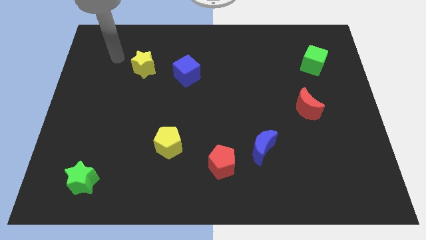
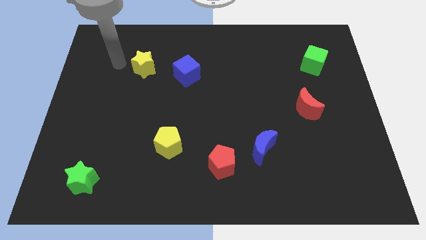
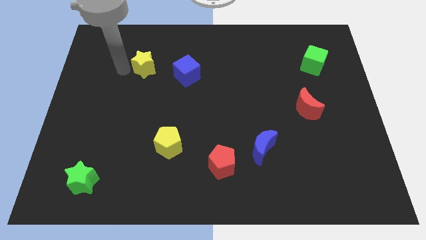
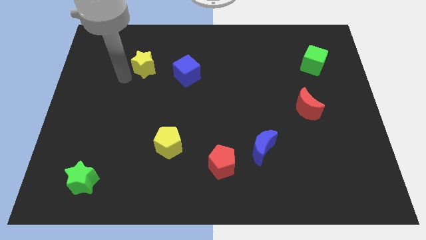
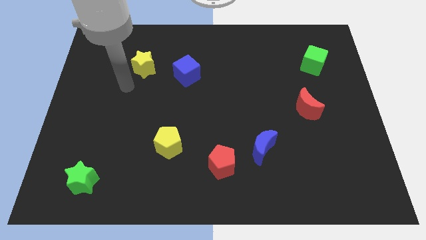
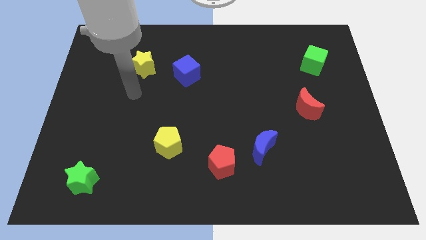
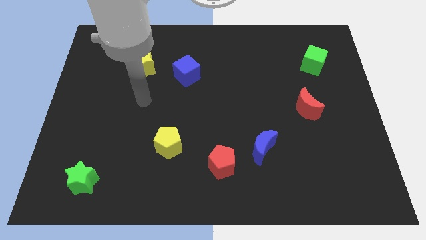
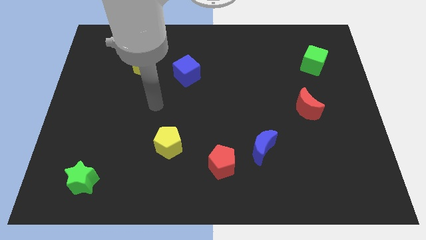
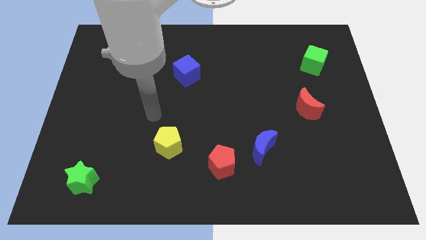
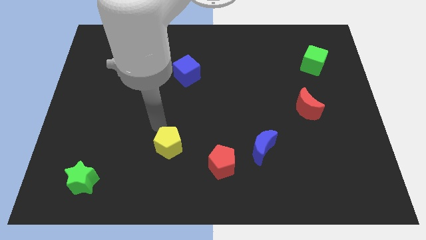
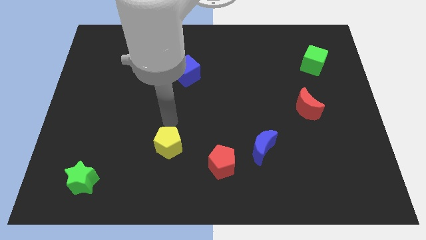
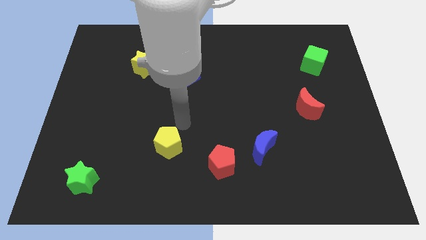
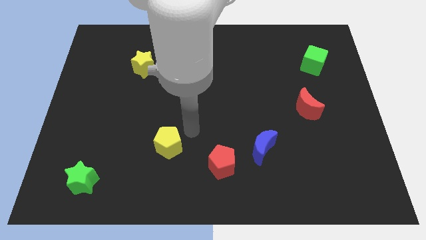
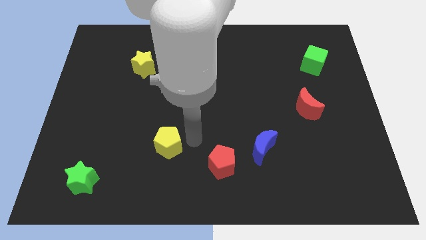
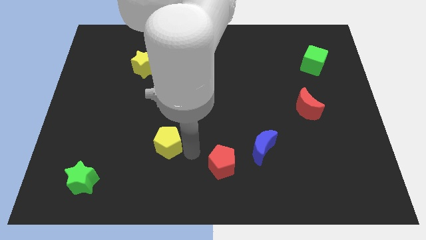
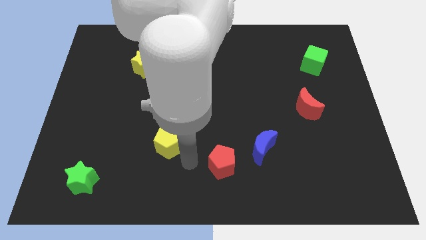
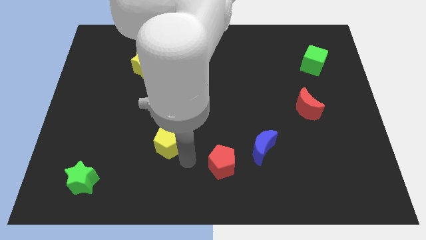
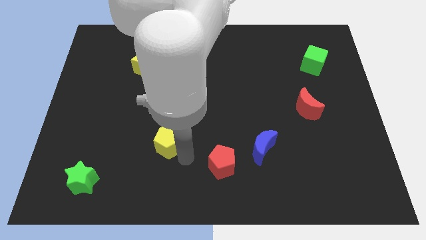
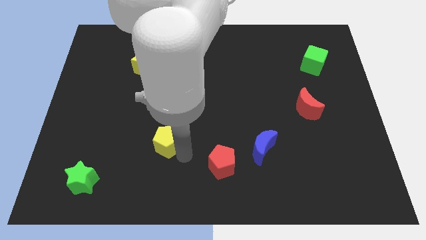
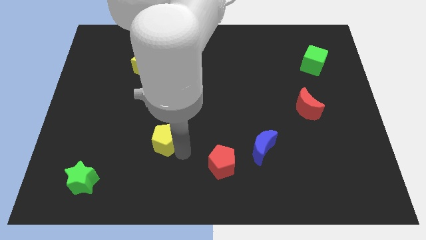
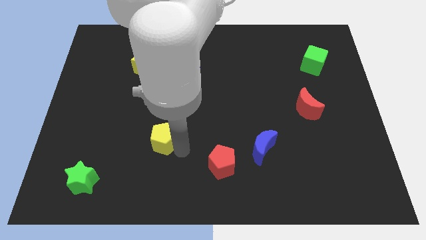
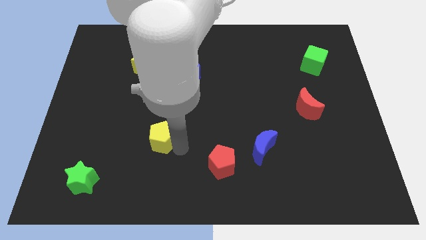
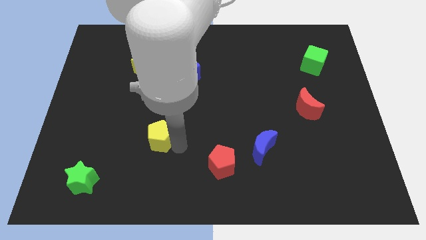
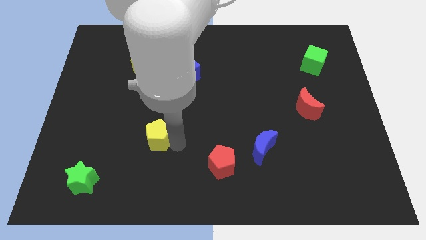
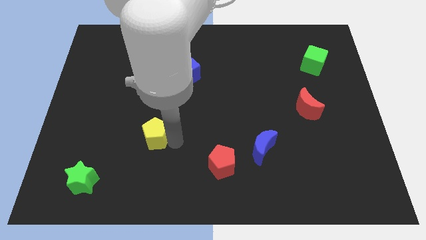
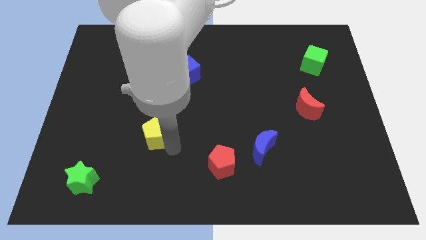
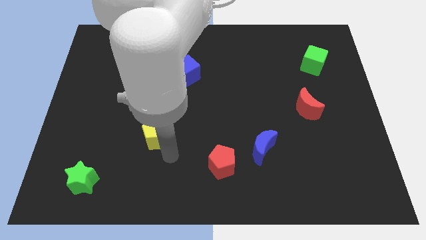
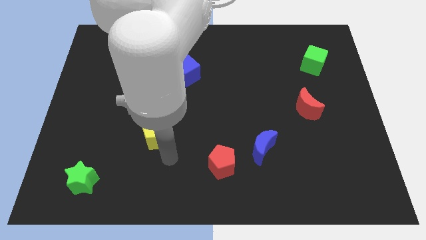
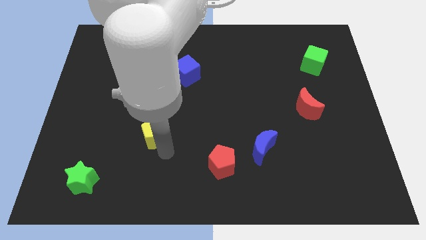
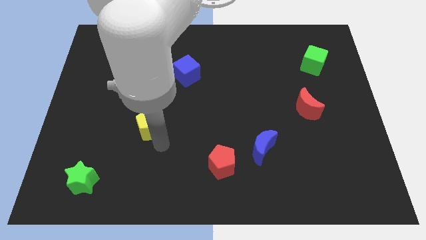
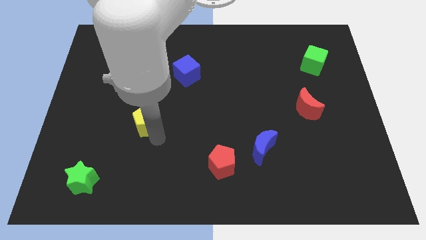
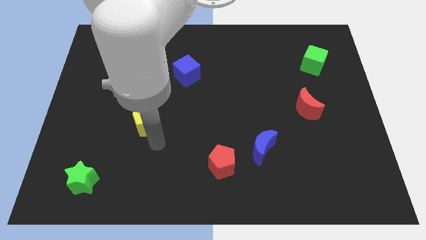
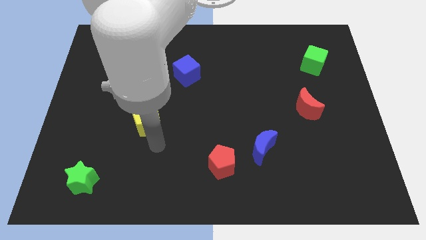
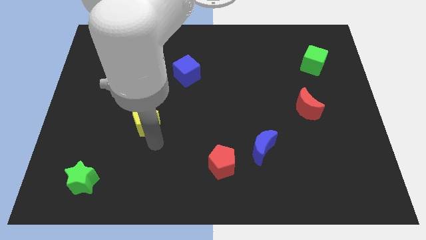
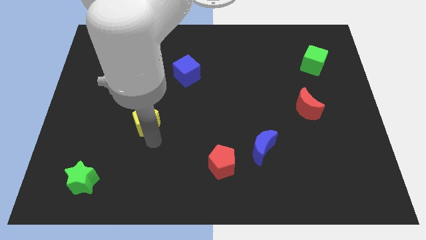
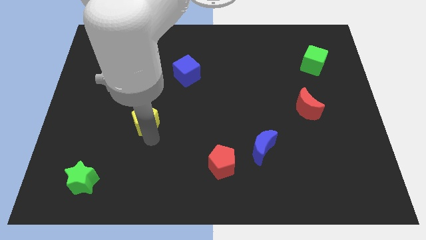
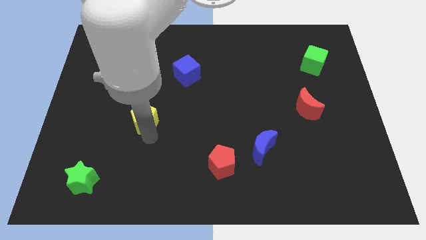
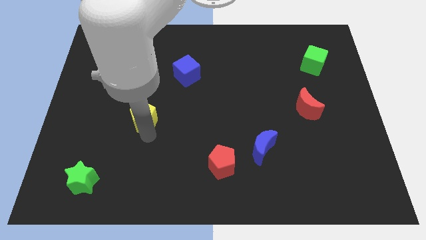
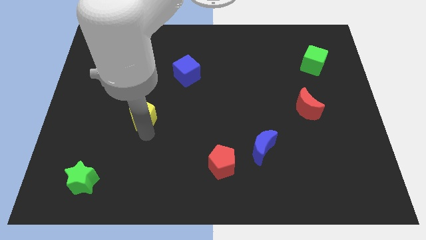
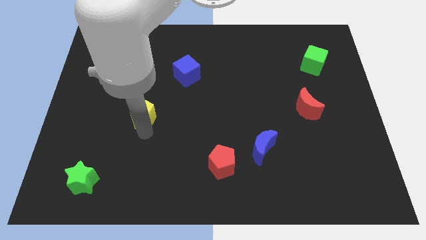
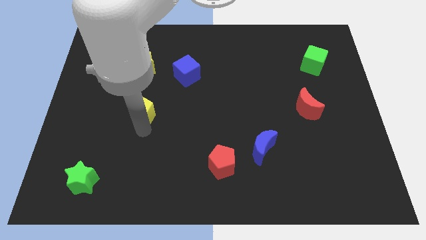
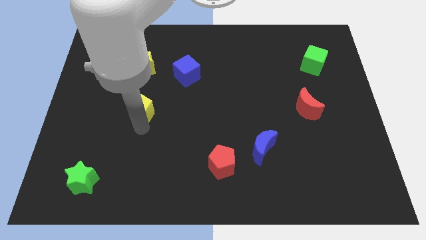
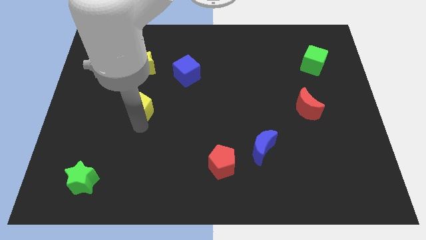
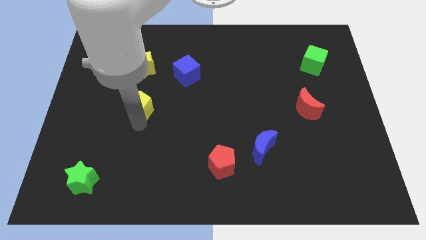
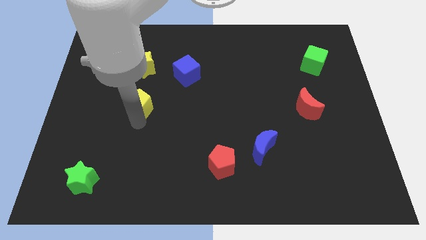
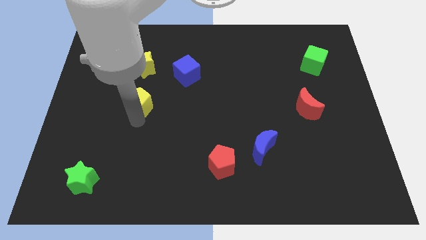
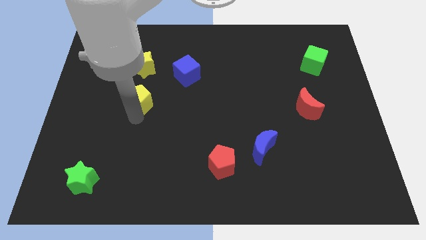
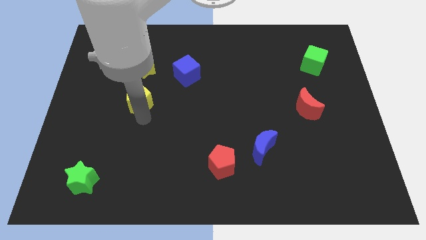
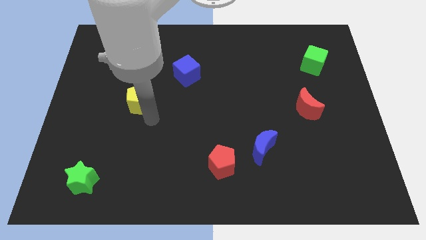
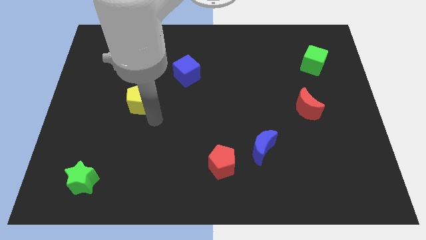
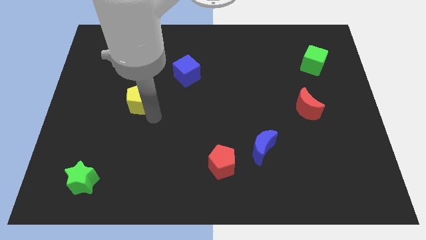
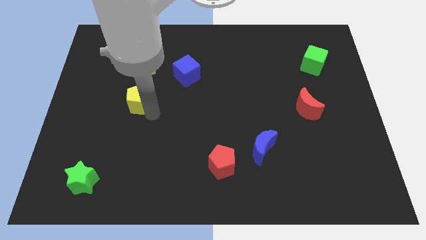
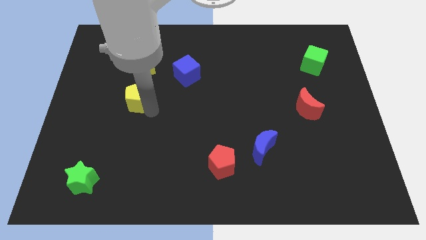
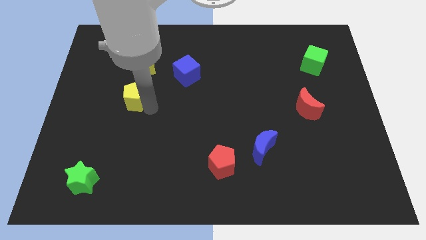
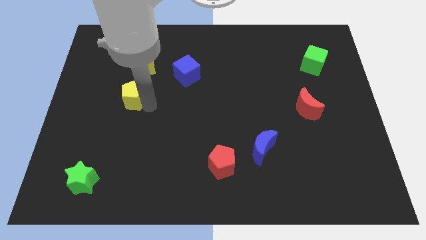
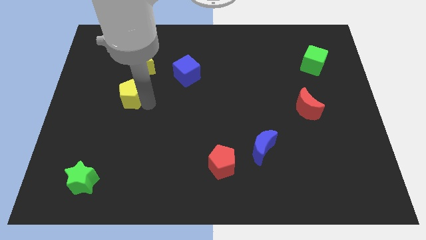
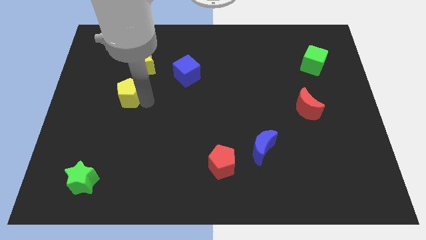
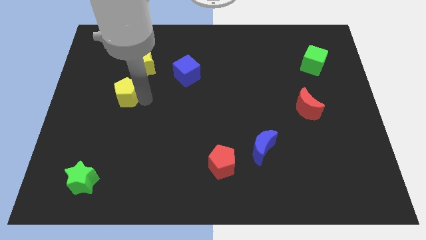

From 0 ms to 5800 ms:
put the yellow pentagon diagonally down and to the left of the yellow star

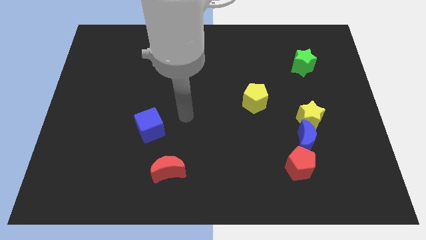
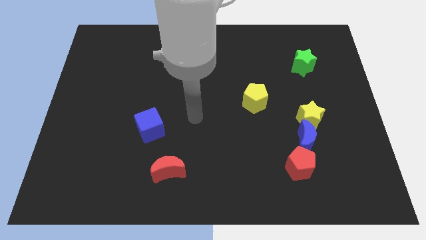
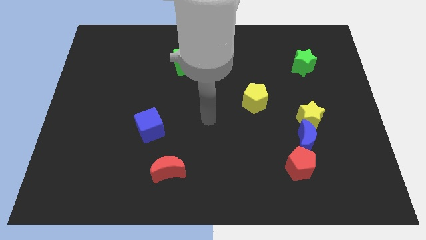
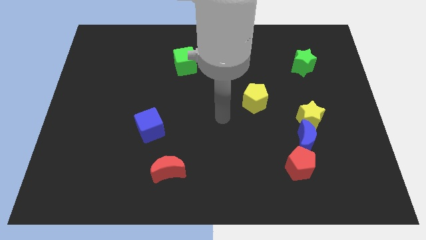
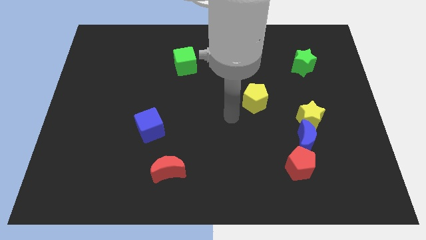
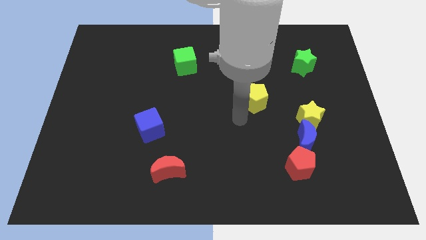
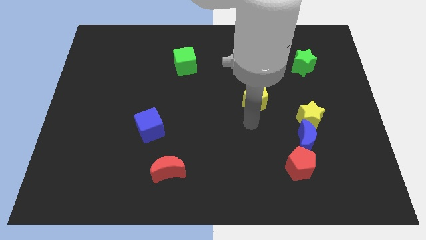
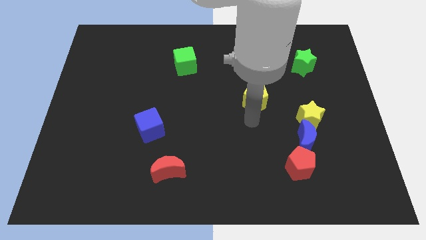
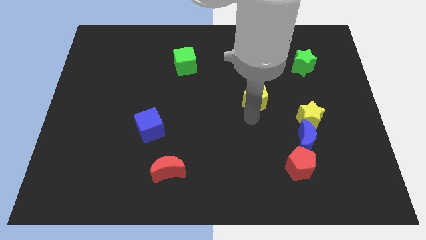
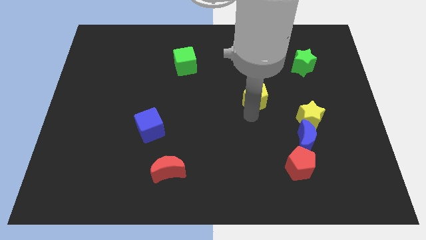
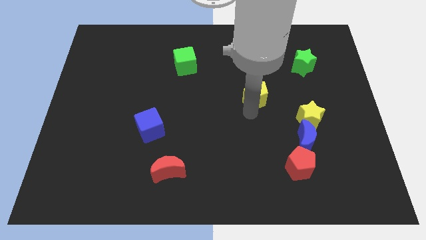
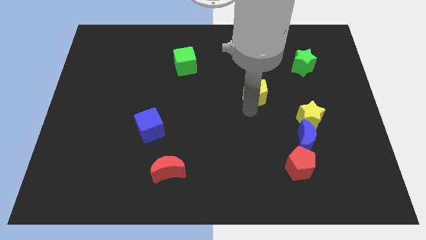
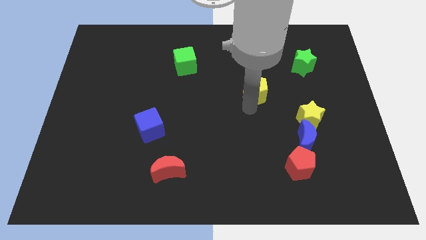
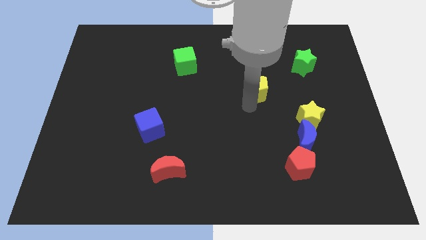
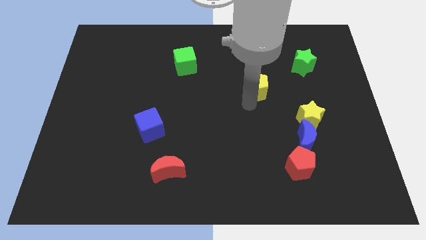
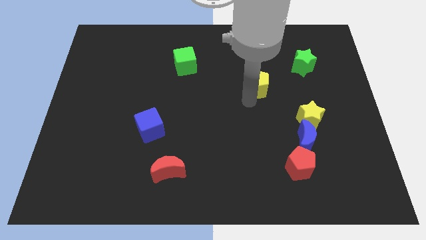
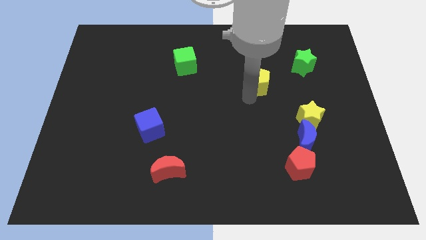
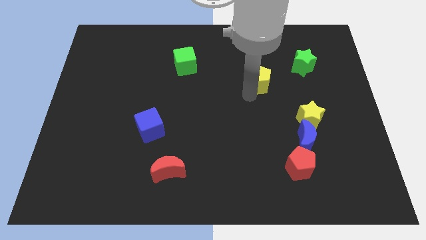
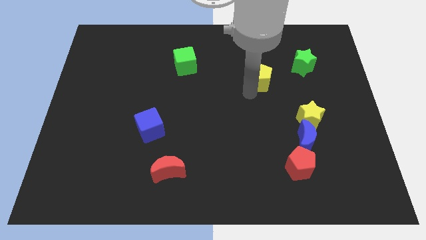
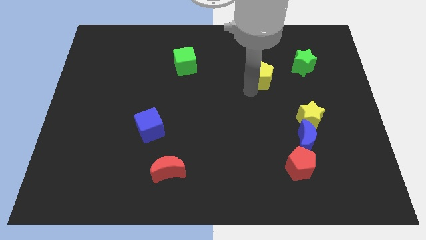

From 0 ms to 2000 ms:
move the yellow pentagon to the left side of the green star
